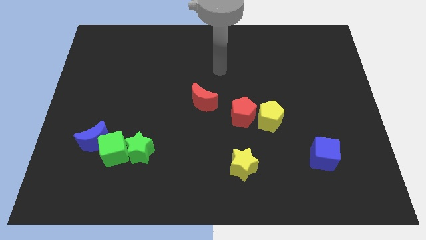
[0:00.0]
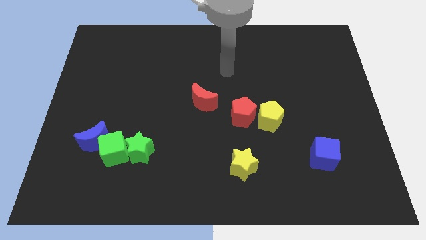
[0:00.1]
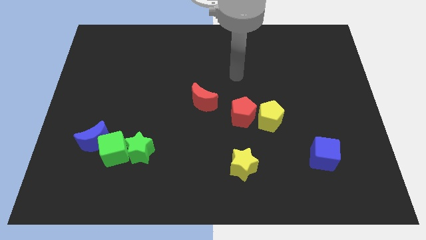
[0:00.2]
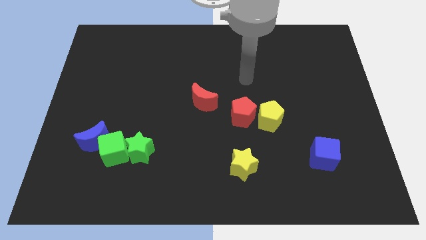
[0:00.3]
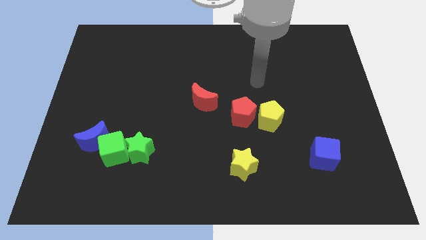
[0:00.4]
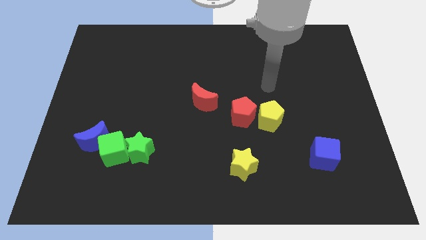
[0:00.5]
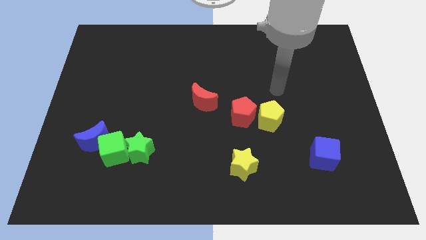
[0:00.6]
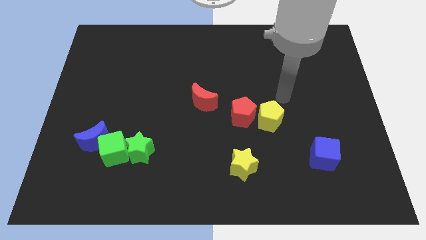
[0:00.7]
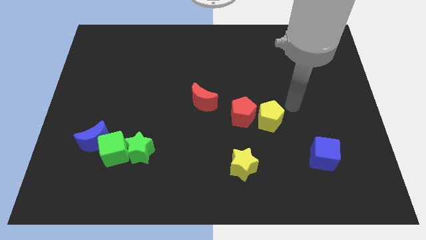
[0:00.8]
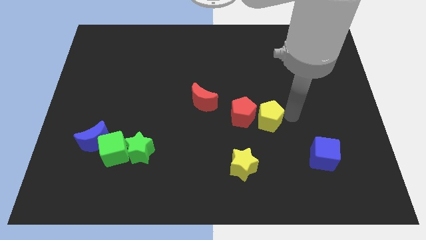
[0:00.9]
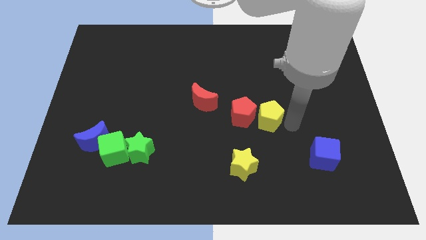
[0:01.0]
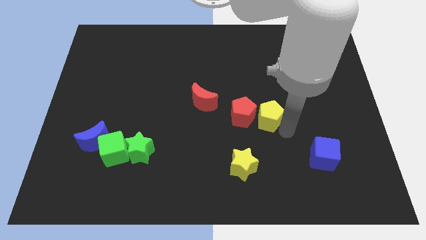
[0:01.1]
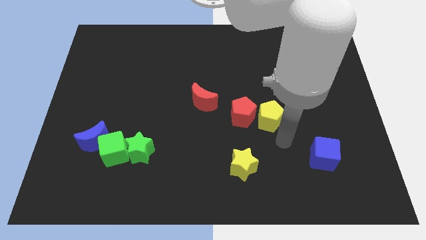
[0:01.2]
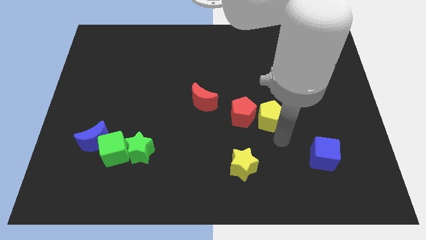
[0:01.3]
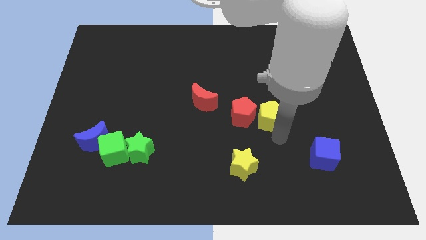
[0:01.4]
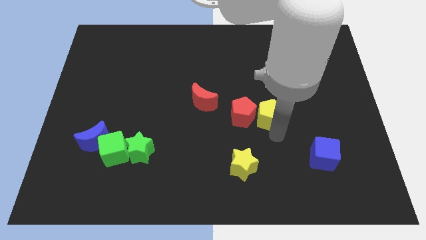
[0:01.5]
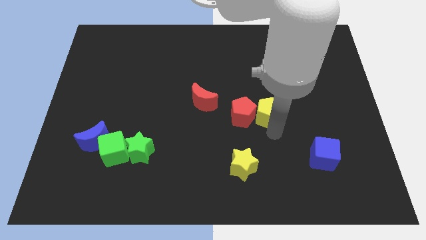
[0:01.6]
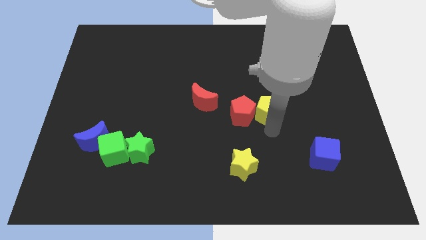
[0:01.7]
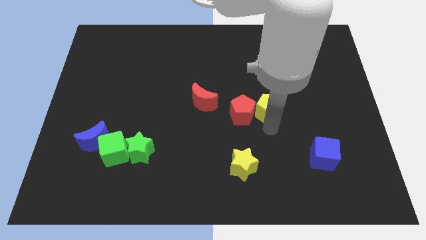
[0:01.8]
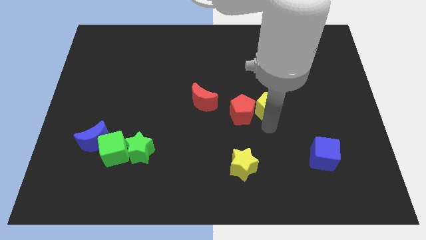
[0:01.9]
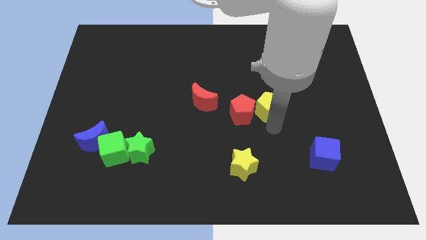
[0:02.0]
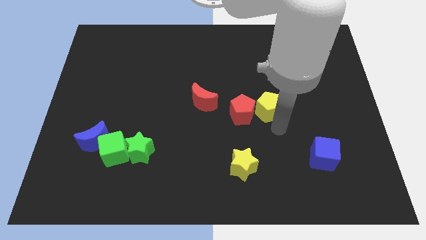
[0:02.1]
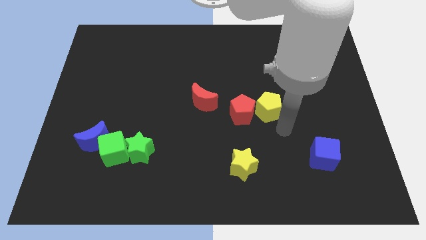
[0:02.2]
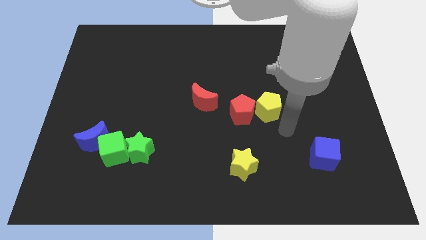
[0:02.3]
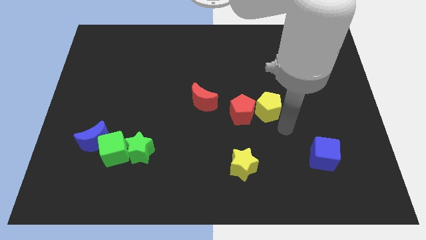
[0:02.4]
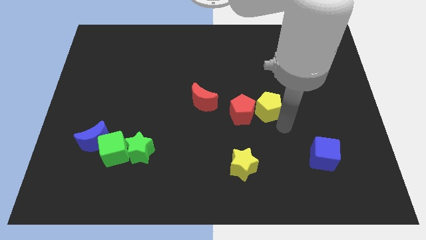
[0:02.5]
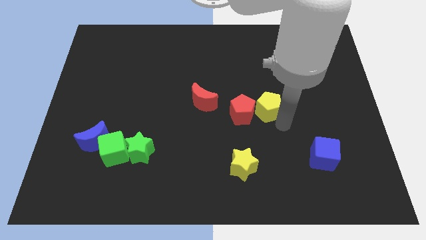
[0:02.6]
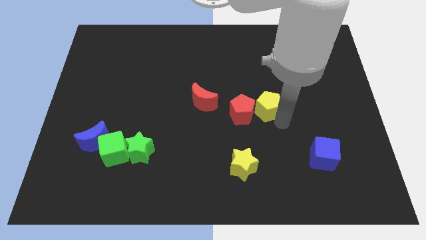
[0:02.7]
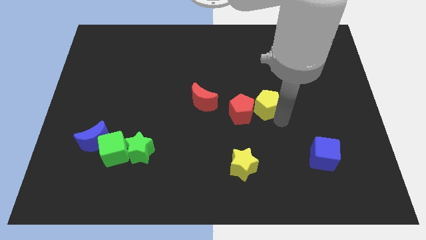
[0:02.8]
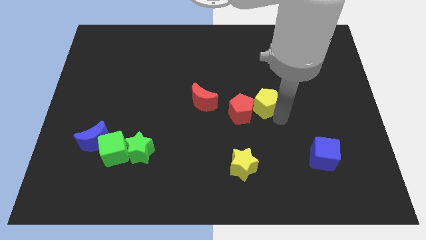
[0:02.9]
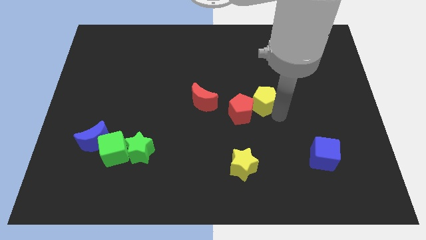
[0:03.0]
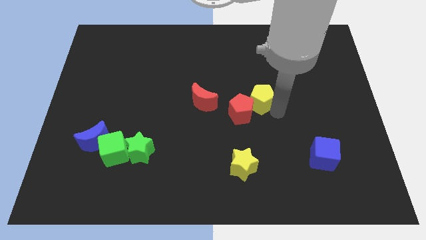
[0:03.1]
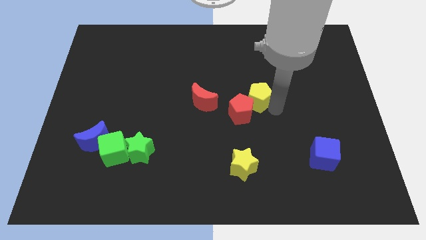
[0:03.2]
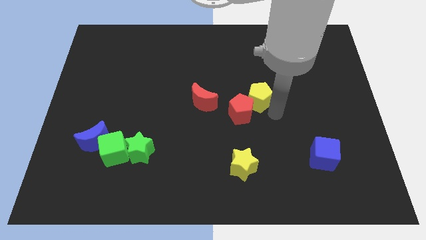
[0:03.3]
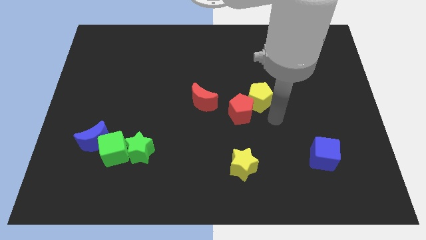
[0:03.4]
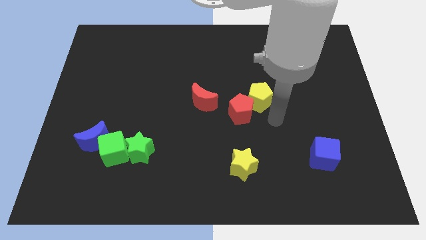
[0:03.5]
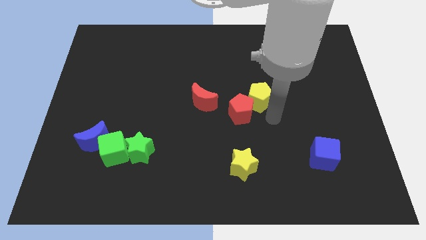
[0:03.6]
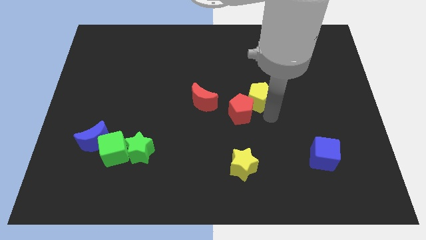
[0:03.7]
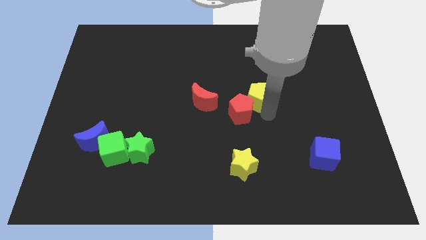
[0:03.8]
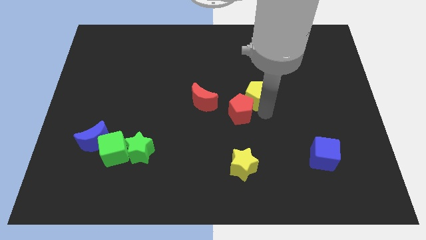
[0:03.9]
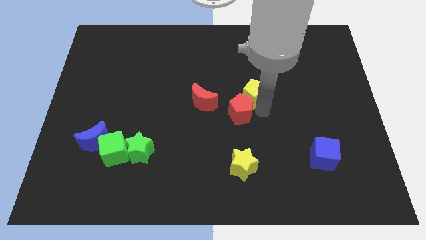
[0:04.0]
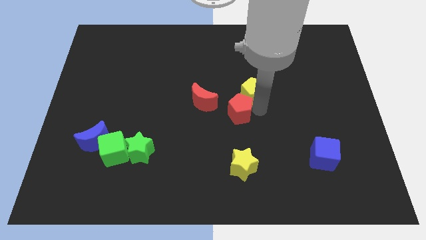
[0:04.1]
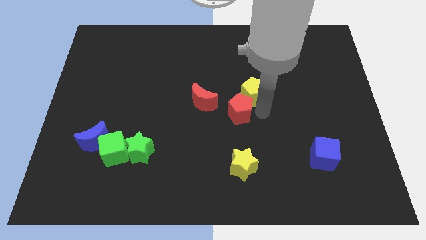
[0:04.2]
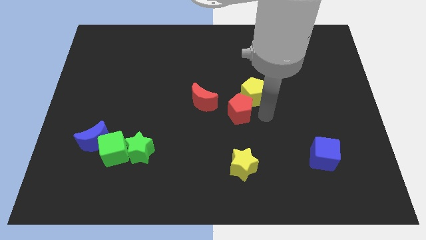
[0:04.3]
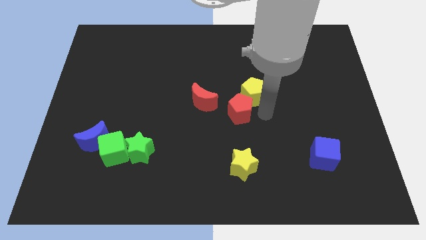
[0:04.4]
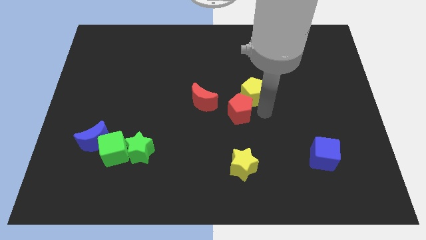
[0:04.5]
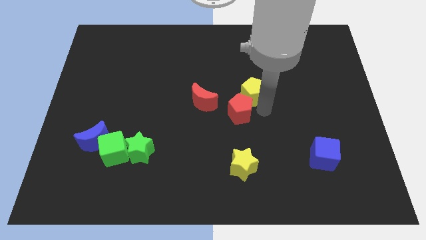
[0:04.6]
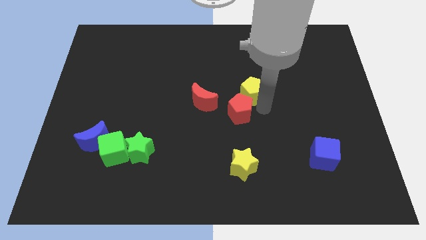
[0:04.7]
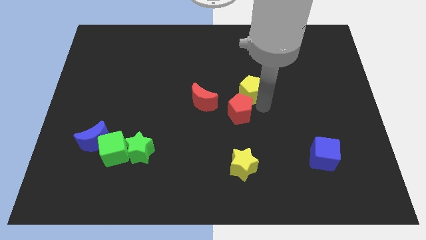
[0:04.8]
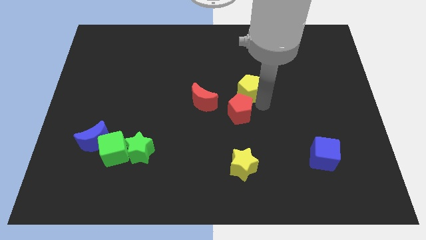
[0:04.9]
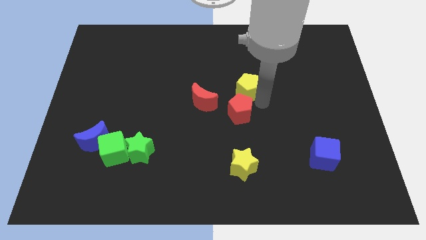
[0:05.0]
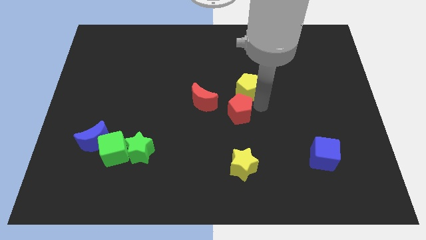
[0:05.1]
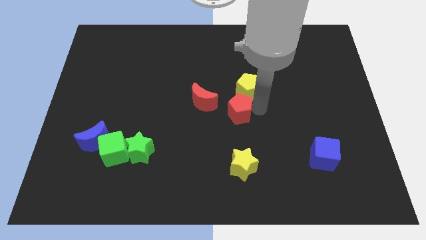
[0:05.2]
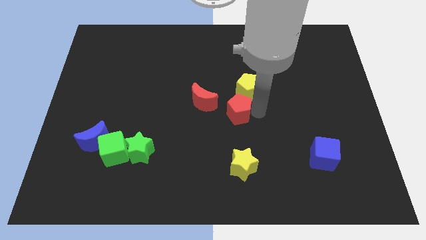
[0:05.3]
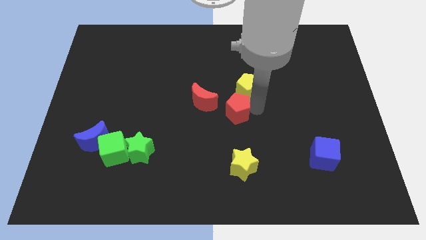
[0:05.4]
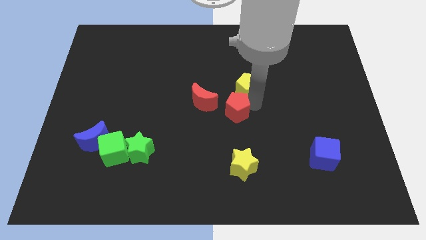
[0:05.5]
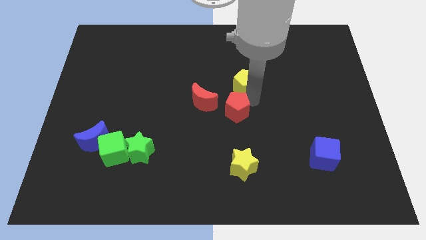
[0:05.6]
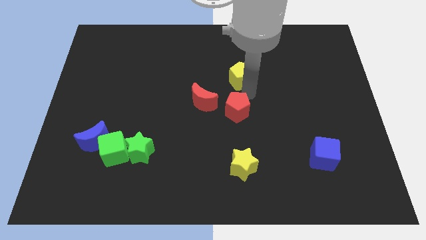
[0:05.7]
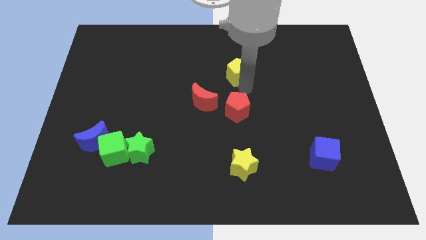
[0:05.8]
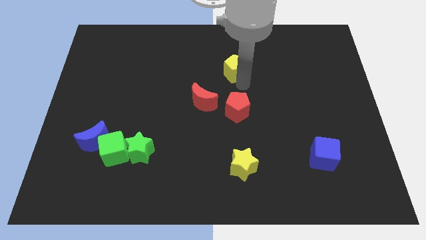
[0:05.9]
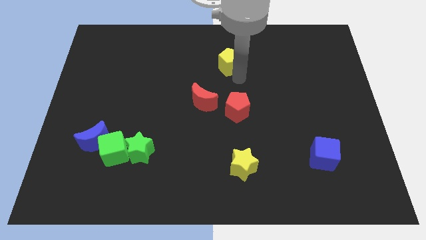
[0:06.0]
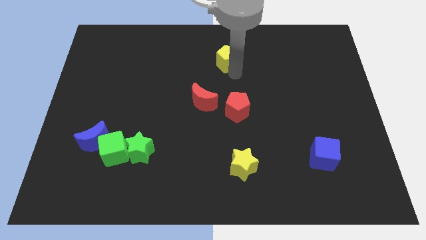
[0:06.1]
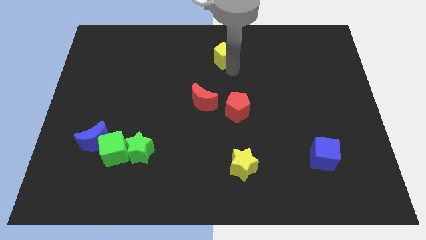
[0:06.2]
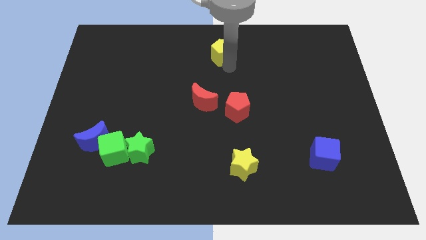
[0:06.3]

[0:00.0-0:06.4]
slide the yellow pentagon to the top side
